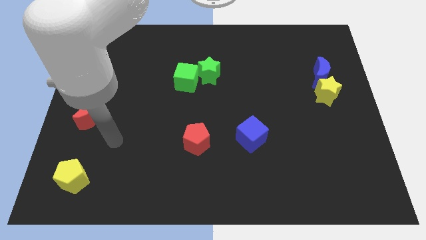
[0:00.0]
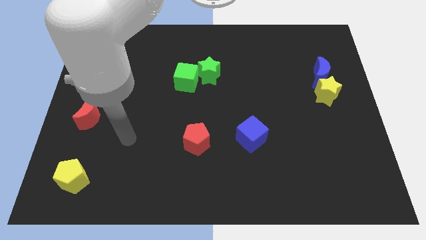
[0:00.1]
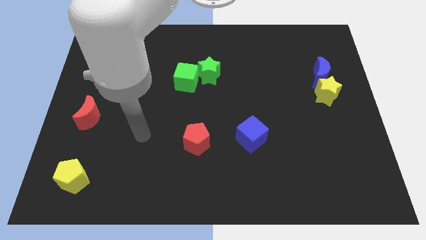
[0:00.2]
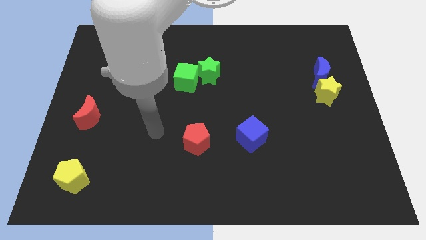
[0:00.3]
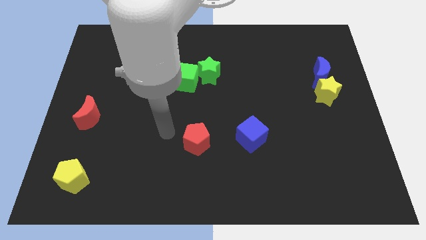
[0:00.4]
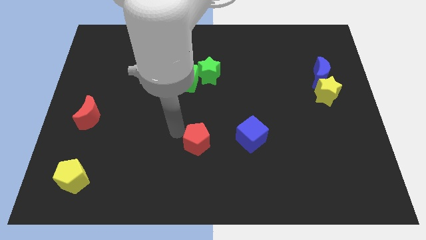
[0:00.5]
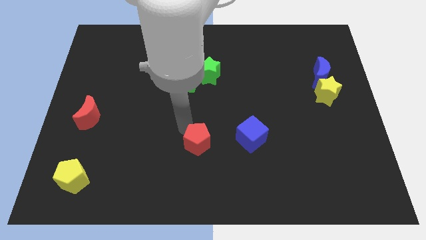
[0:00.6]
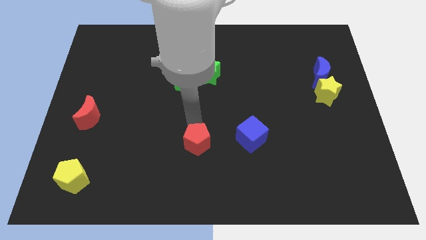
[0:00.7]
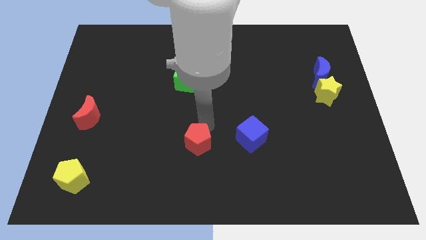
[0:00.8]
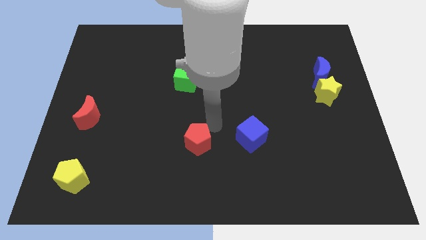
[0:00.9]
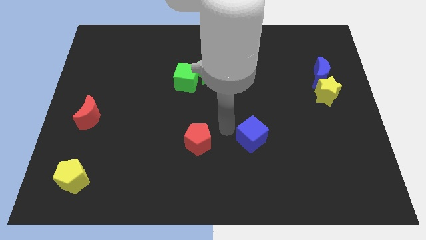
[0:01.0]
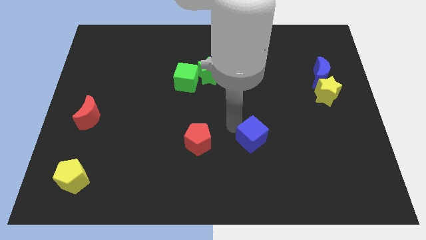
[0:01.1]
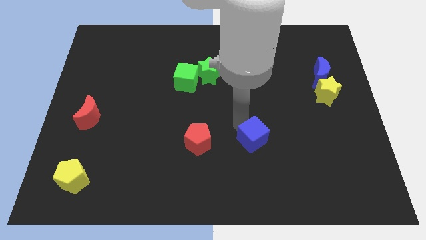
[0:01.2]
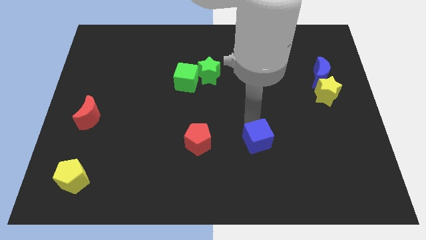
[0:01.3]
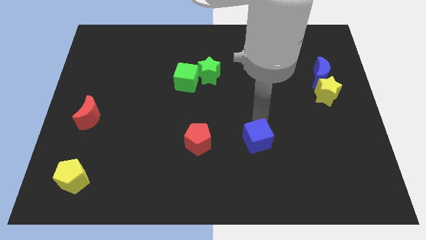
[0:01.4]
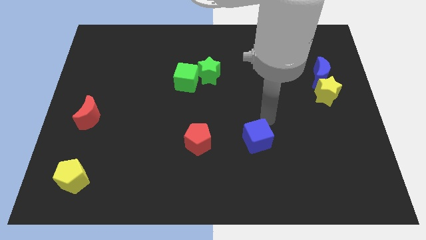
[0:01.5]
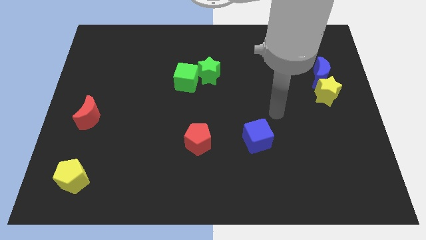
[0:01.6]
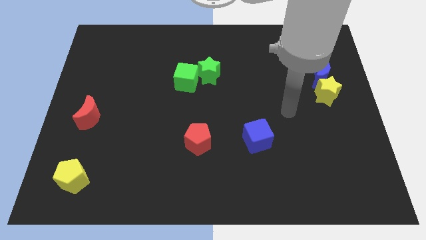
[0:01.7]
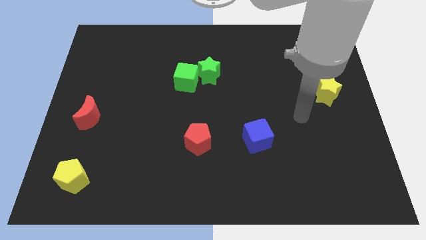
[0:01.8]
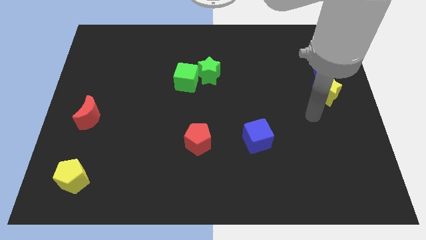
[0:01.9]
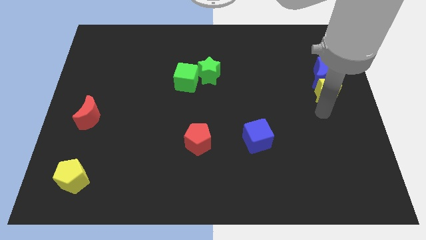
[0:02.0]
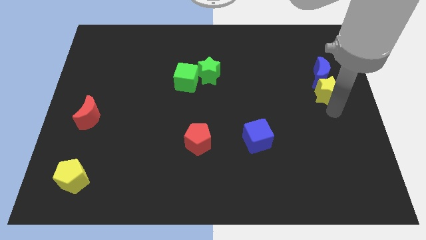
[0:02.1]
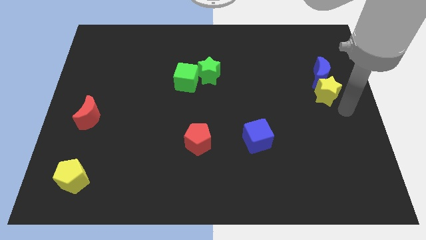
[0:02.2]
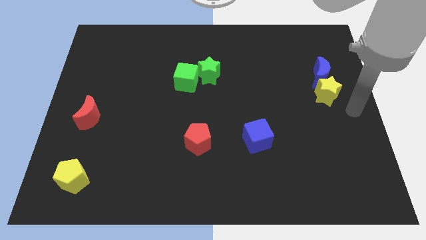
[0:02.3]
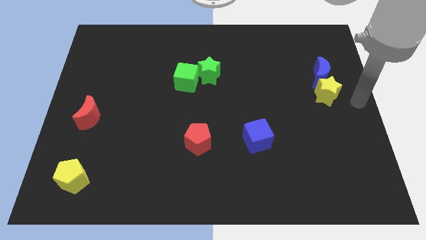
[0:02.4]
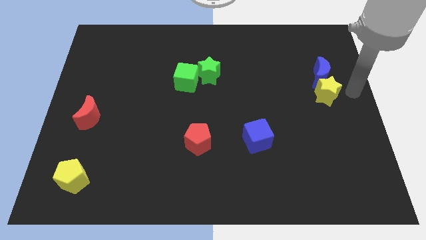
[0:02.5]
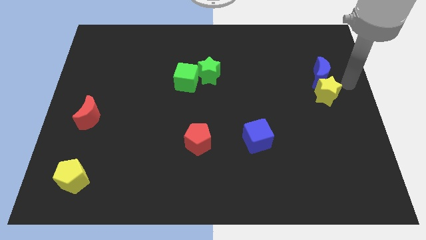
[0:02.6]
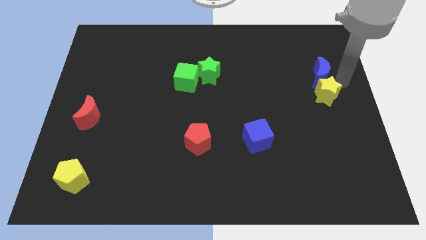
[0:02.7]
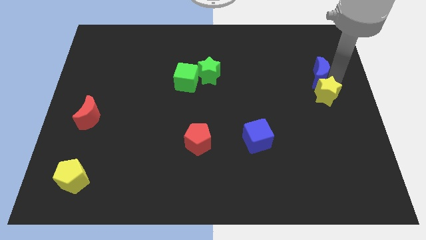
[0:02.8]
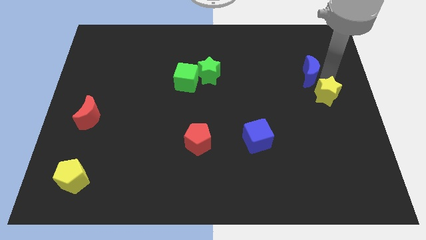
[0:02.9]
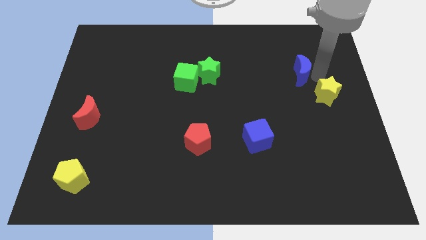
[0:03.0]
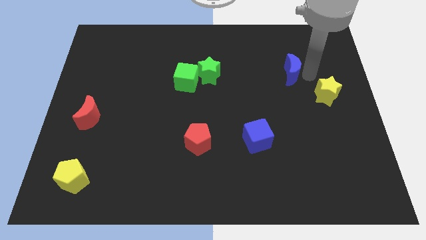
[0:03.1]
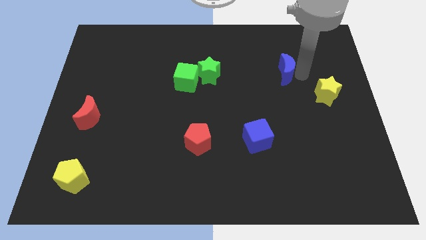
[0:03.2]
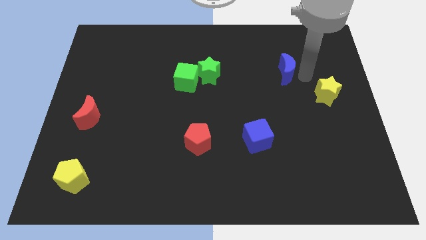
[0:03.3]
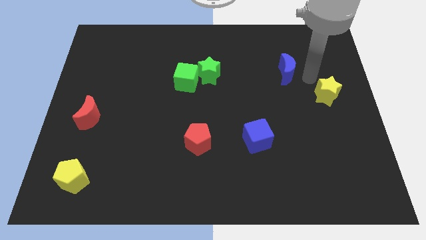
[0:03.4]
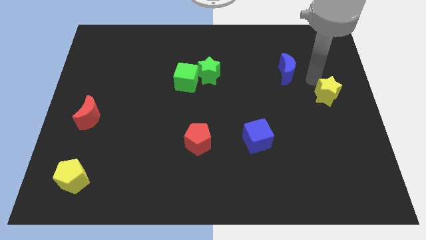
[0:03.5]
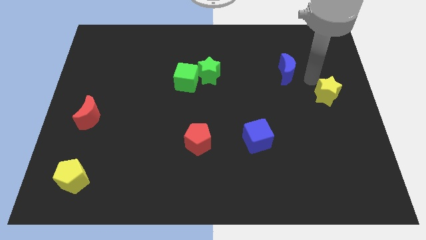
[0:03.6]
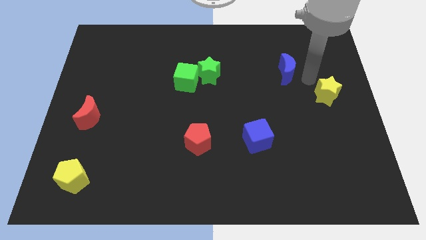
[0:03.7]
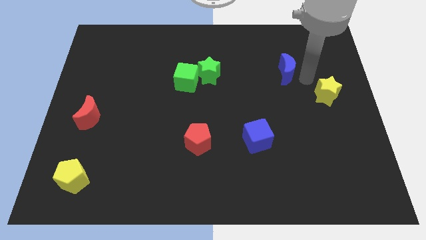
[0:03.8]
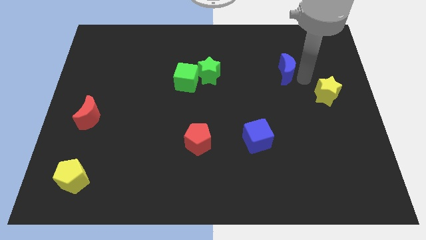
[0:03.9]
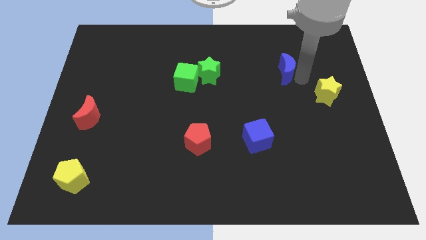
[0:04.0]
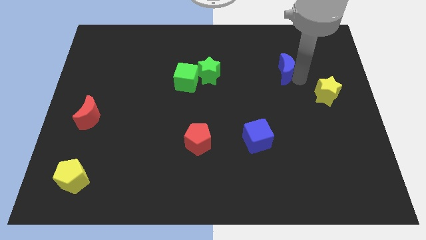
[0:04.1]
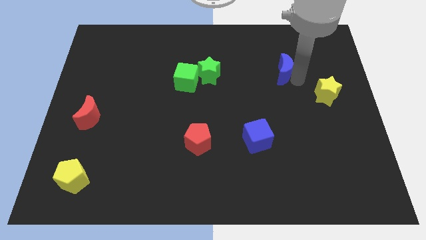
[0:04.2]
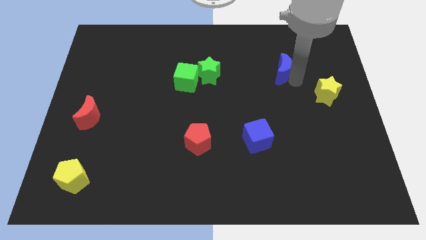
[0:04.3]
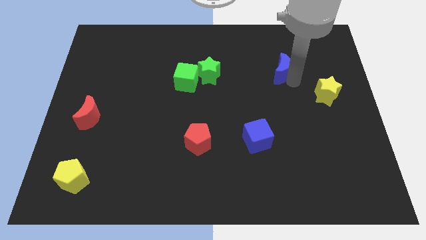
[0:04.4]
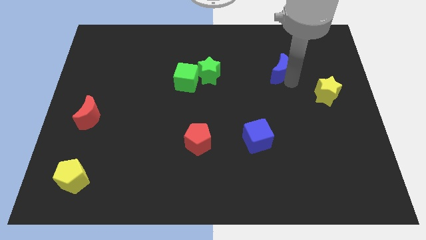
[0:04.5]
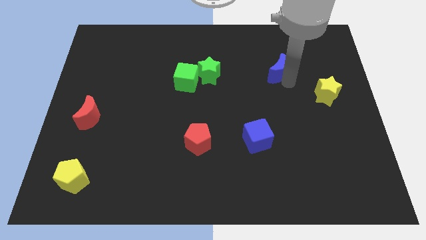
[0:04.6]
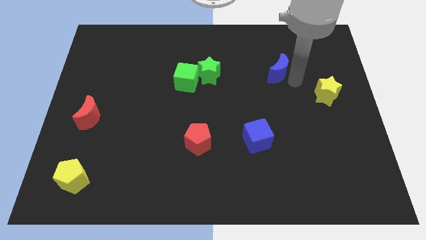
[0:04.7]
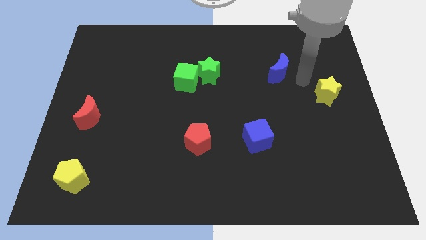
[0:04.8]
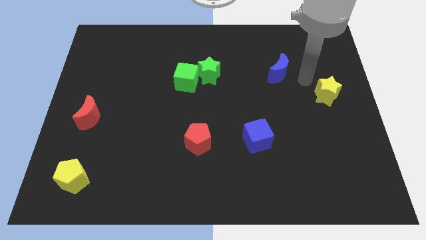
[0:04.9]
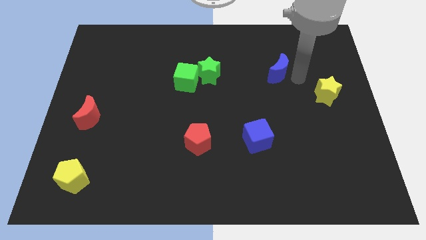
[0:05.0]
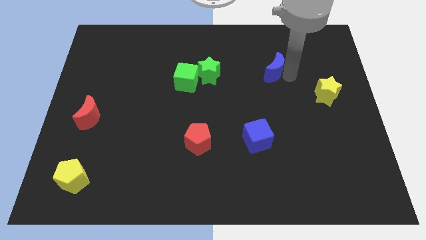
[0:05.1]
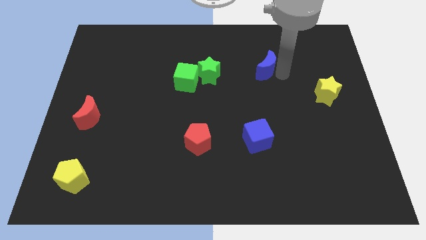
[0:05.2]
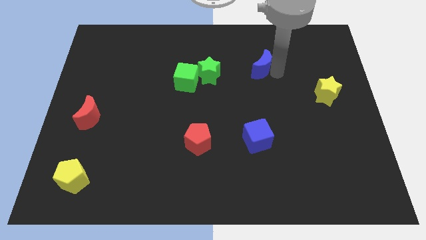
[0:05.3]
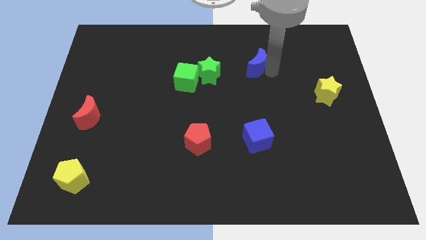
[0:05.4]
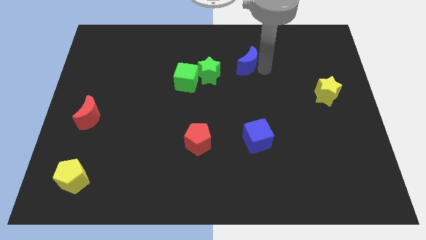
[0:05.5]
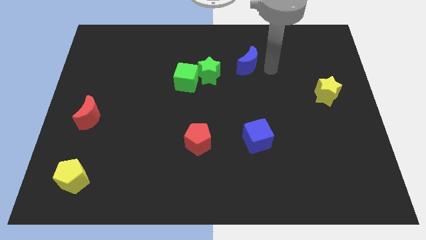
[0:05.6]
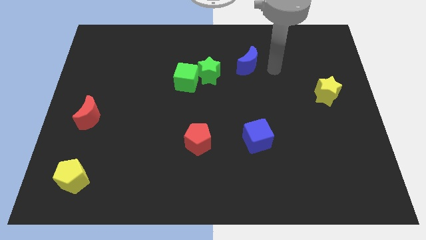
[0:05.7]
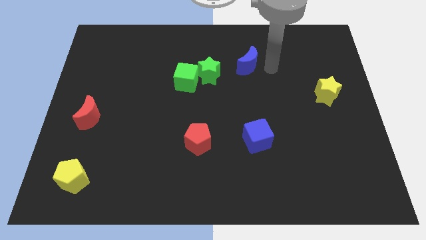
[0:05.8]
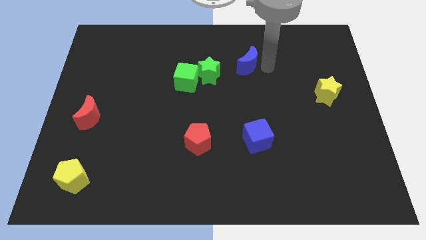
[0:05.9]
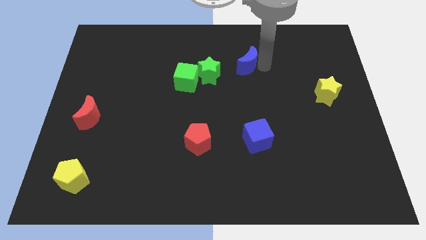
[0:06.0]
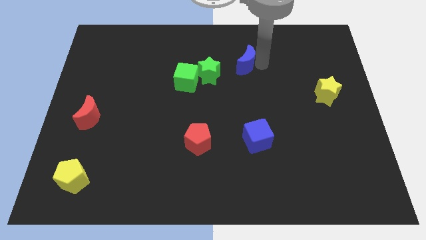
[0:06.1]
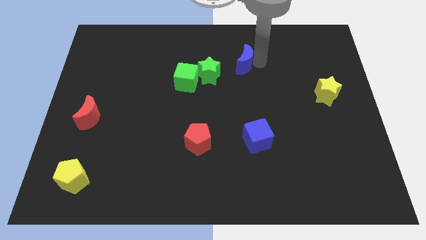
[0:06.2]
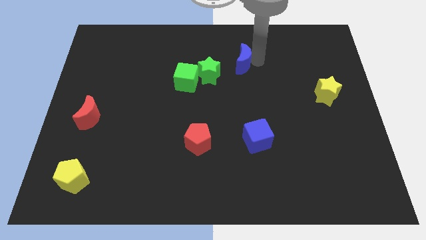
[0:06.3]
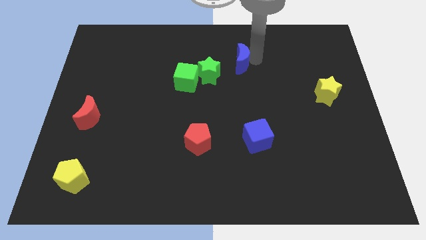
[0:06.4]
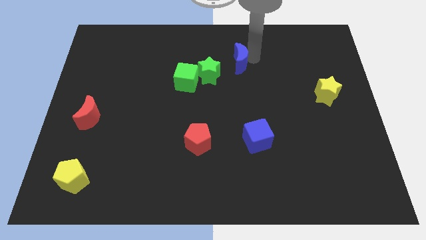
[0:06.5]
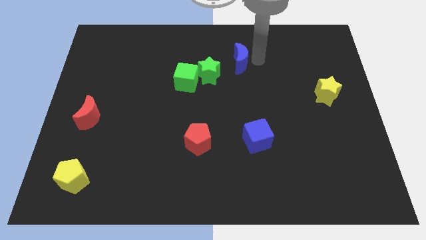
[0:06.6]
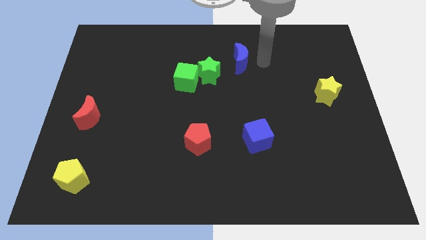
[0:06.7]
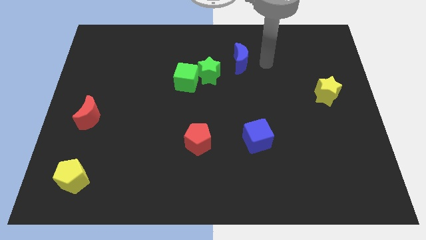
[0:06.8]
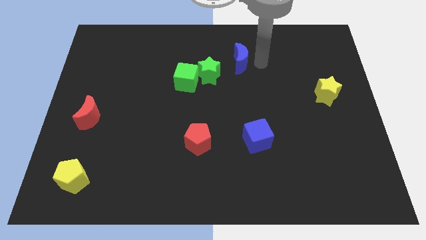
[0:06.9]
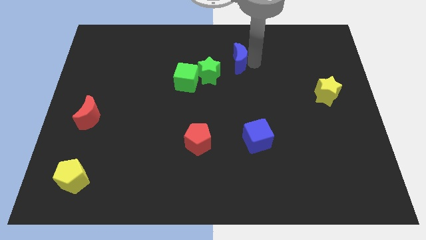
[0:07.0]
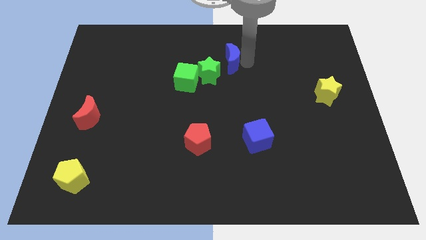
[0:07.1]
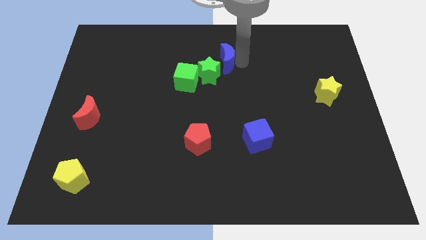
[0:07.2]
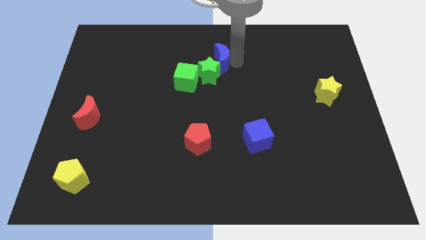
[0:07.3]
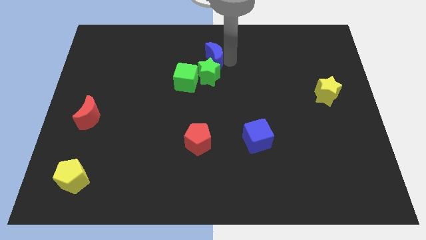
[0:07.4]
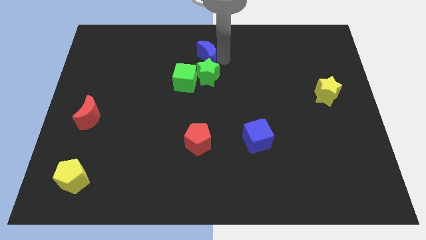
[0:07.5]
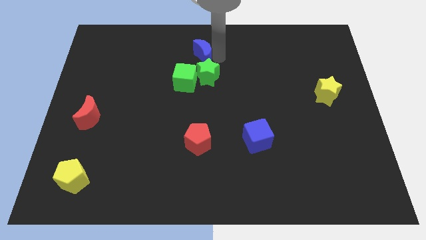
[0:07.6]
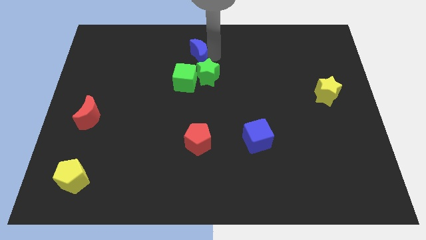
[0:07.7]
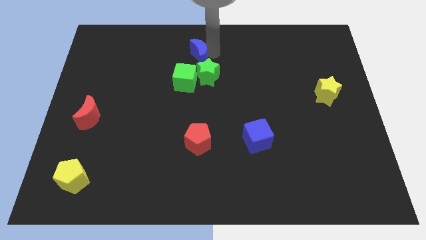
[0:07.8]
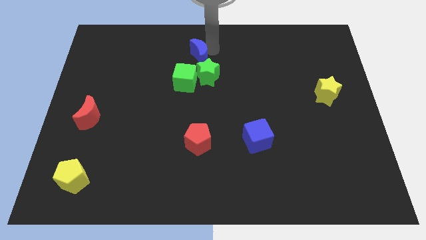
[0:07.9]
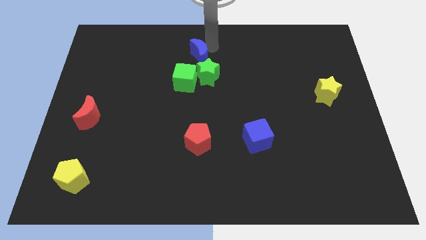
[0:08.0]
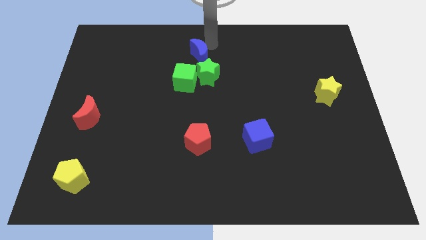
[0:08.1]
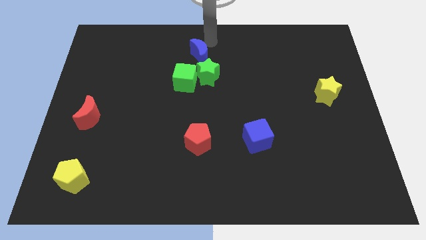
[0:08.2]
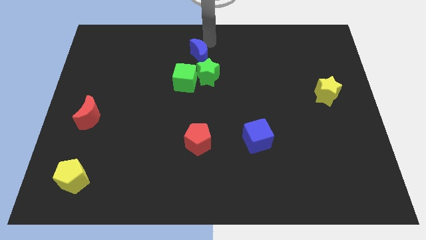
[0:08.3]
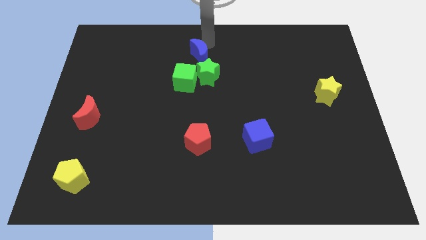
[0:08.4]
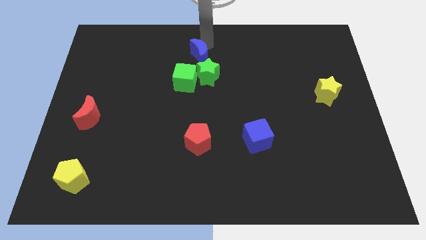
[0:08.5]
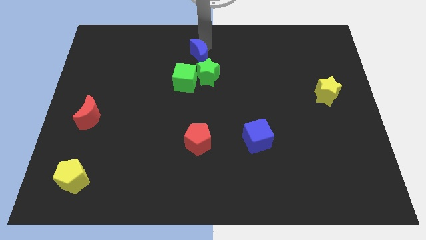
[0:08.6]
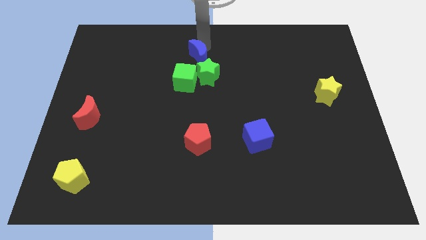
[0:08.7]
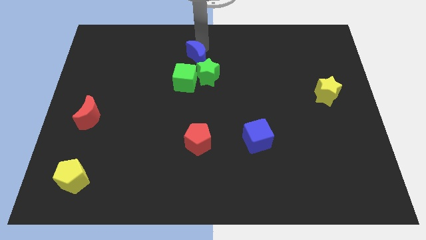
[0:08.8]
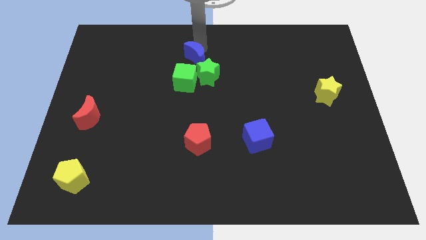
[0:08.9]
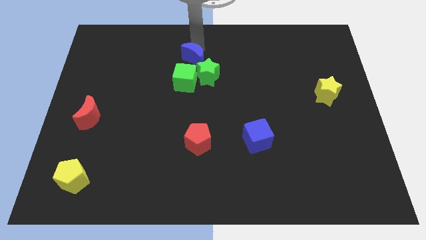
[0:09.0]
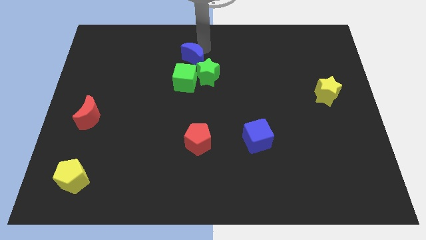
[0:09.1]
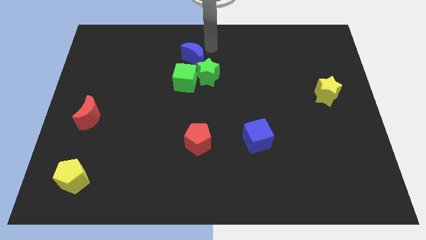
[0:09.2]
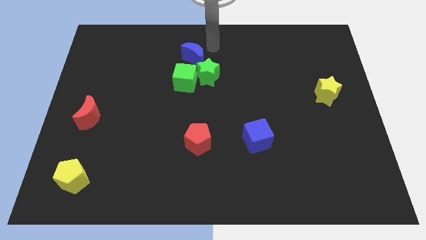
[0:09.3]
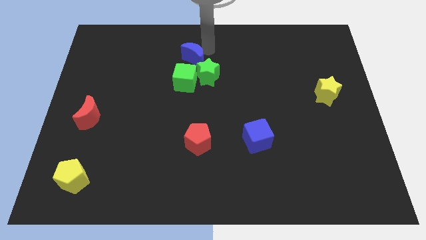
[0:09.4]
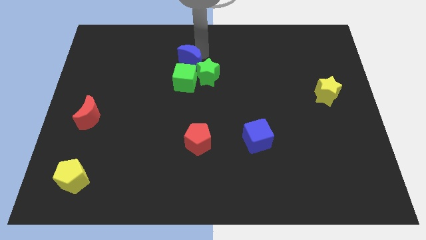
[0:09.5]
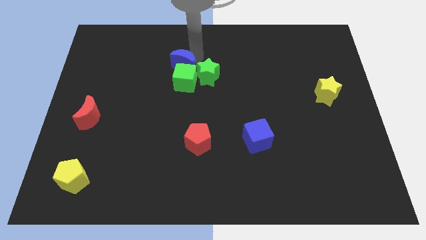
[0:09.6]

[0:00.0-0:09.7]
put the blue moon to the left side of the green star
